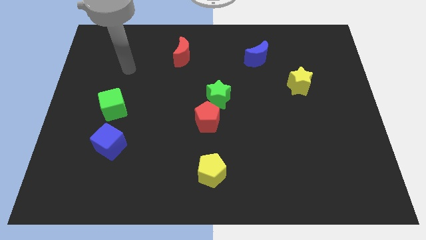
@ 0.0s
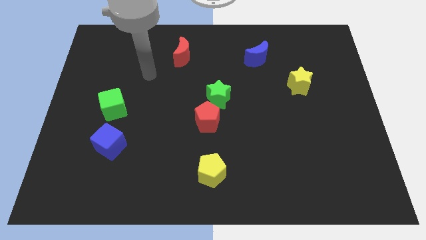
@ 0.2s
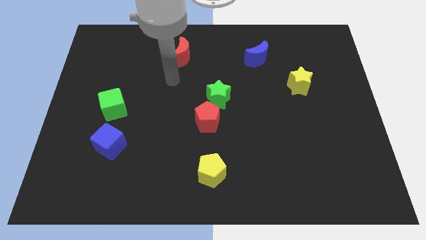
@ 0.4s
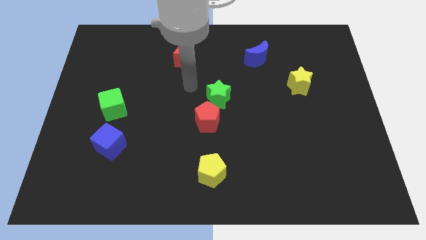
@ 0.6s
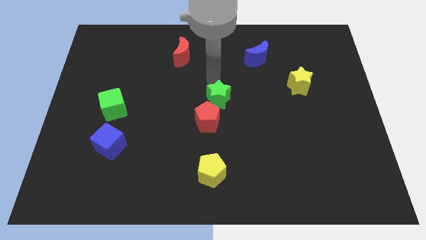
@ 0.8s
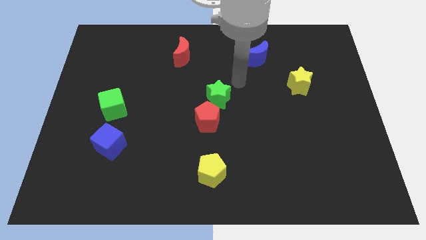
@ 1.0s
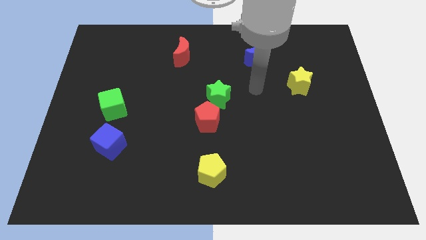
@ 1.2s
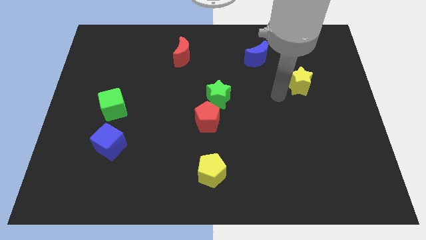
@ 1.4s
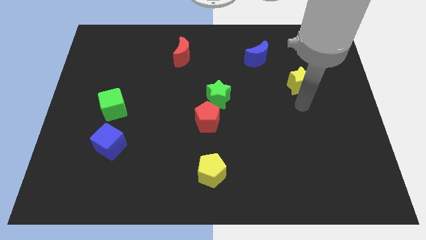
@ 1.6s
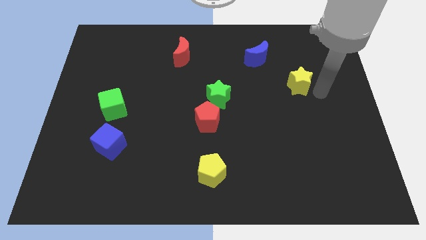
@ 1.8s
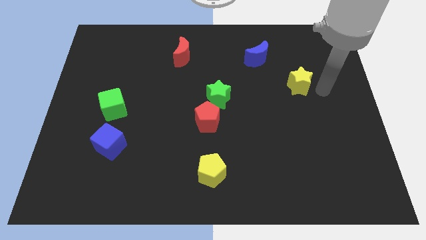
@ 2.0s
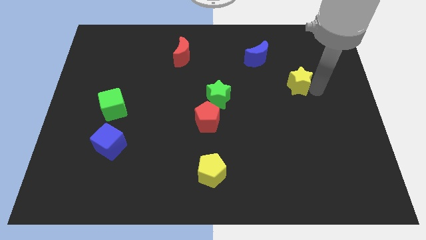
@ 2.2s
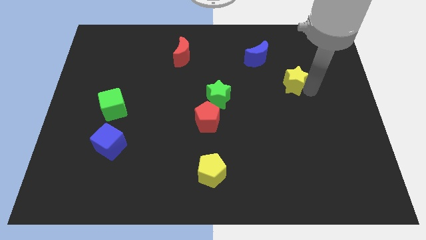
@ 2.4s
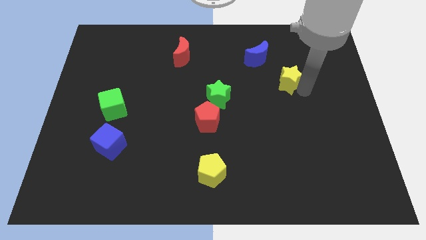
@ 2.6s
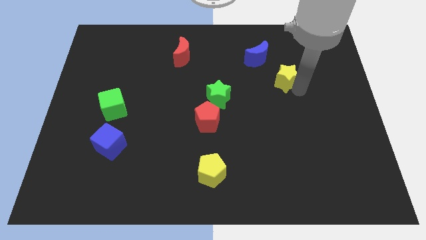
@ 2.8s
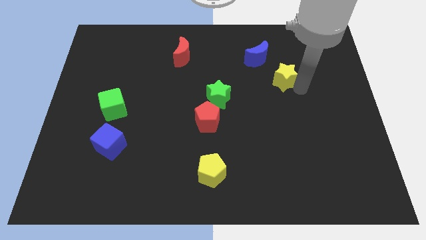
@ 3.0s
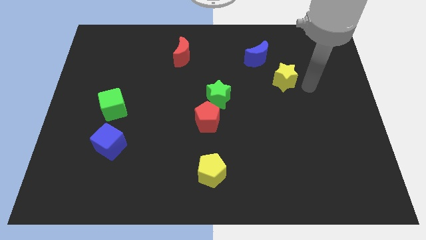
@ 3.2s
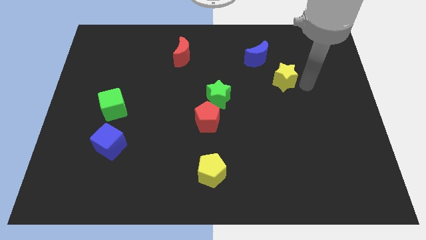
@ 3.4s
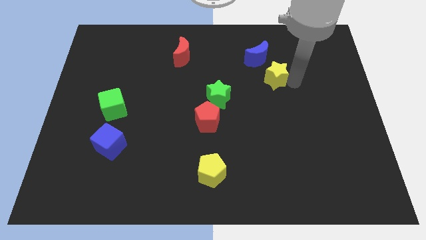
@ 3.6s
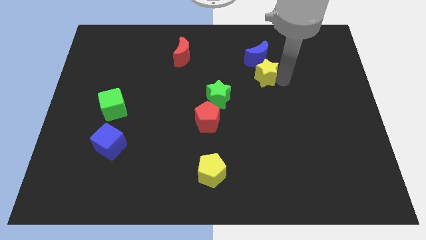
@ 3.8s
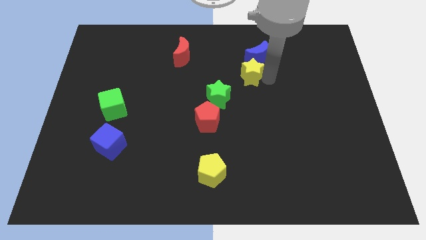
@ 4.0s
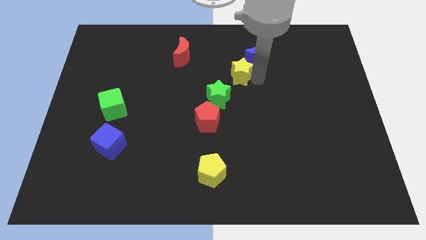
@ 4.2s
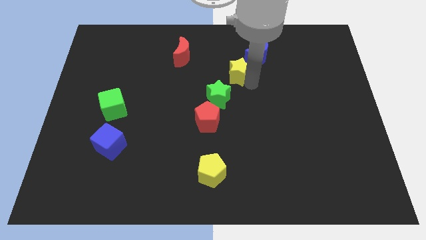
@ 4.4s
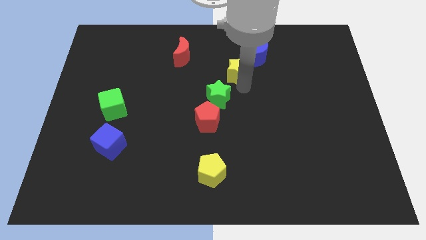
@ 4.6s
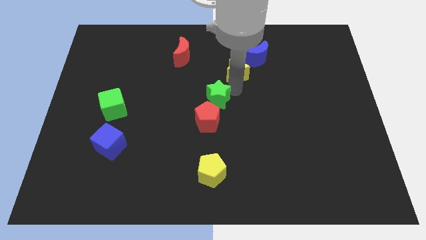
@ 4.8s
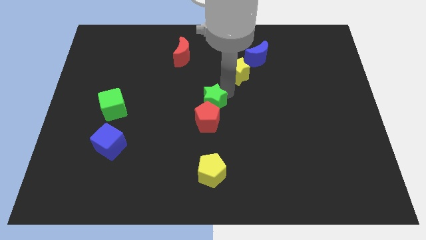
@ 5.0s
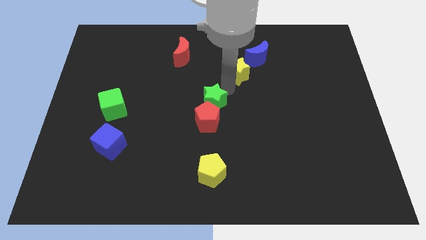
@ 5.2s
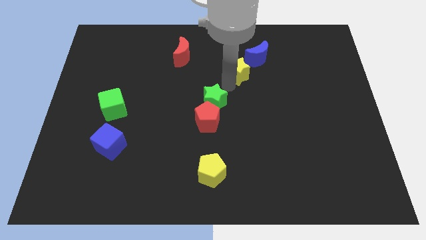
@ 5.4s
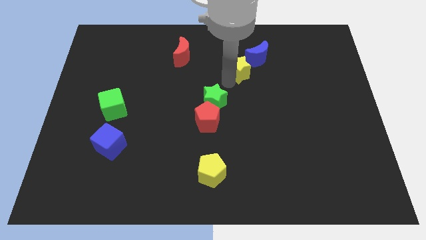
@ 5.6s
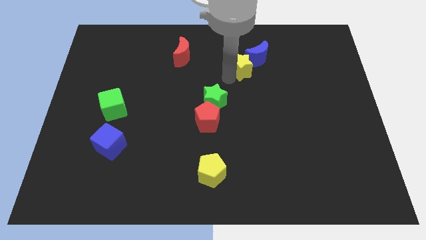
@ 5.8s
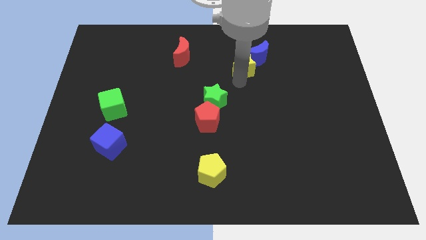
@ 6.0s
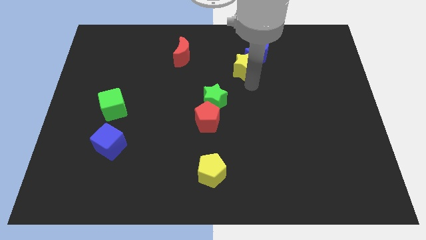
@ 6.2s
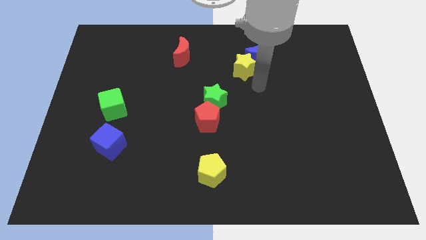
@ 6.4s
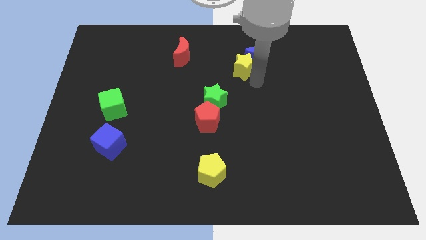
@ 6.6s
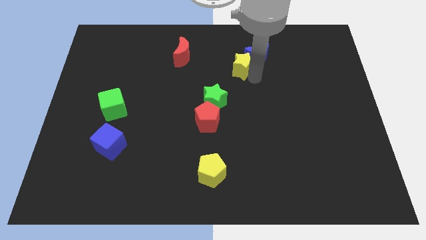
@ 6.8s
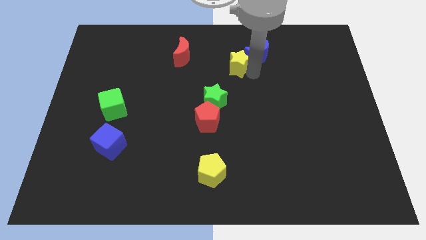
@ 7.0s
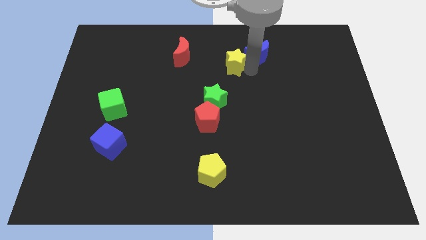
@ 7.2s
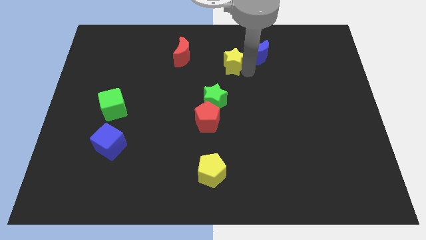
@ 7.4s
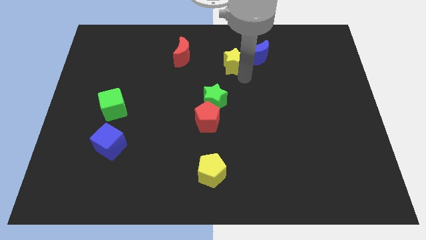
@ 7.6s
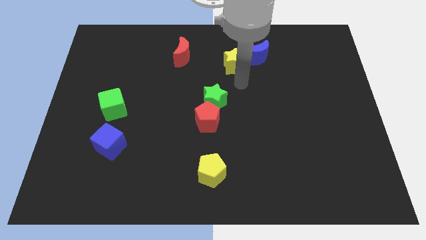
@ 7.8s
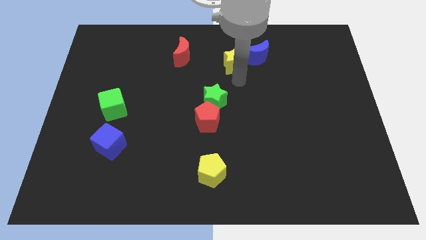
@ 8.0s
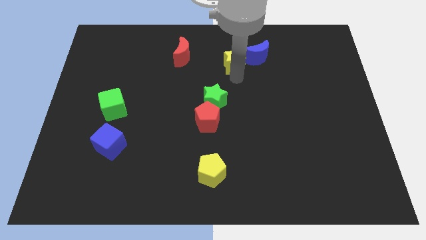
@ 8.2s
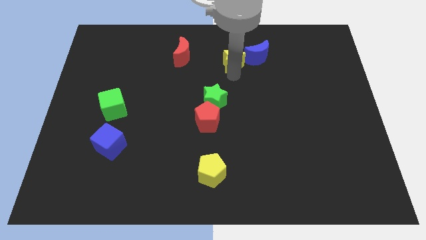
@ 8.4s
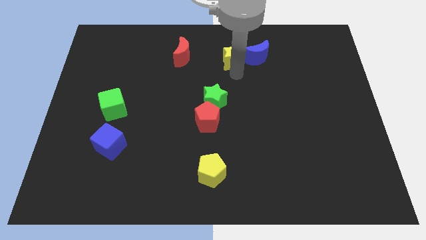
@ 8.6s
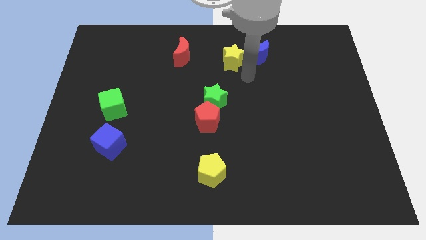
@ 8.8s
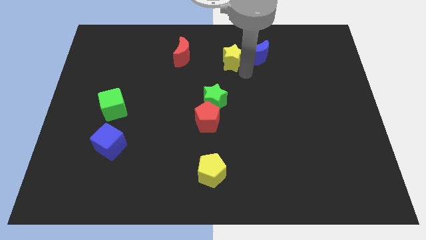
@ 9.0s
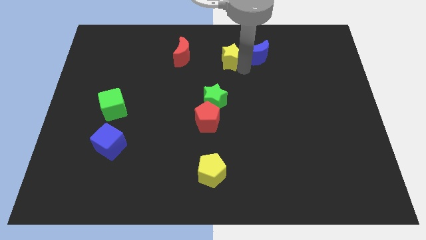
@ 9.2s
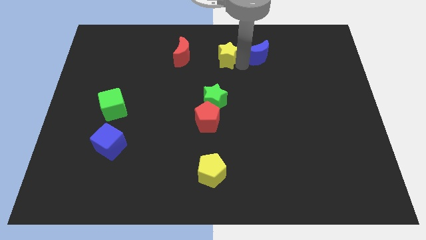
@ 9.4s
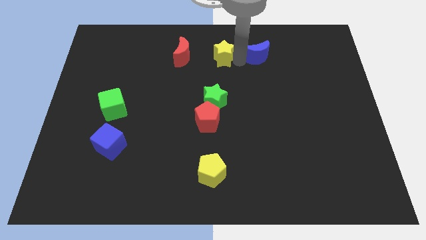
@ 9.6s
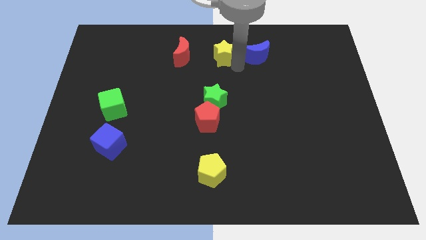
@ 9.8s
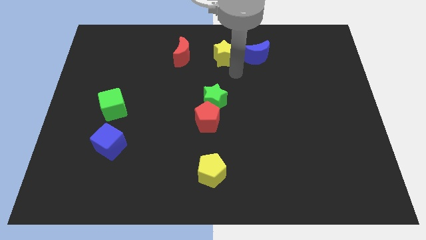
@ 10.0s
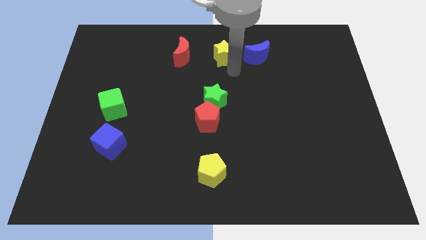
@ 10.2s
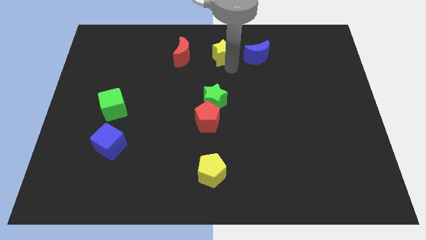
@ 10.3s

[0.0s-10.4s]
slide the yellow star to the towards your base

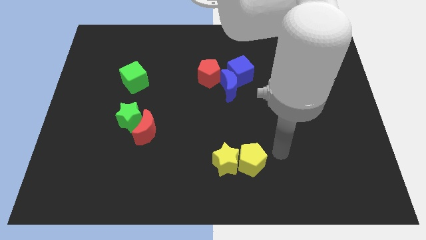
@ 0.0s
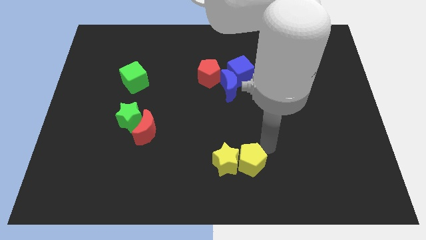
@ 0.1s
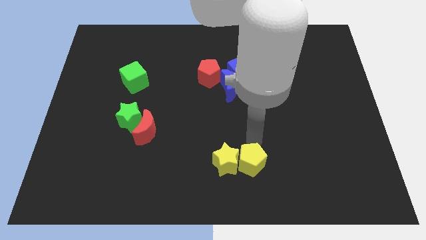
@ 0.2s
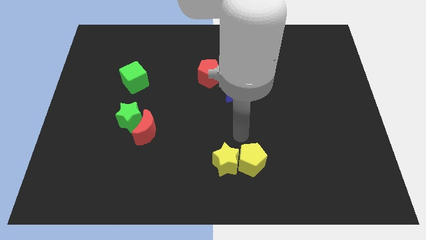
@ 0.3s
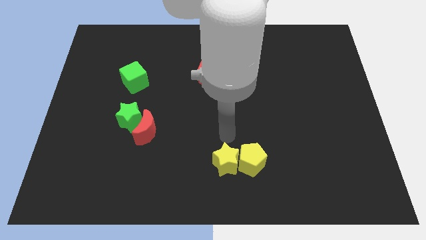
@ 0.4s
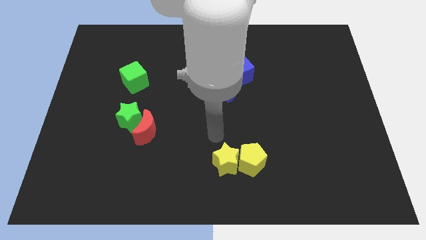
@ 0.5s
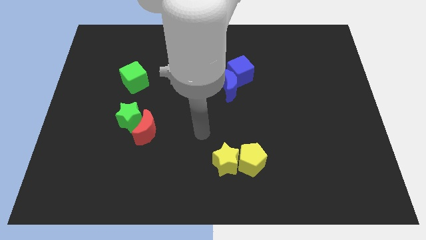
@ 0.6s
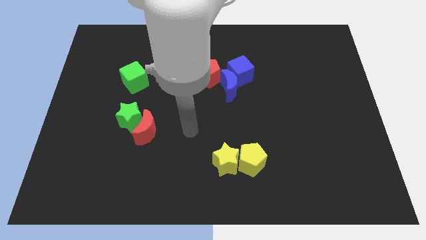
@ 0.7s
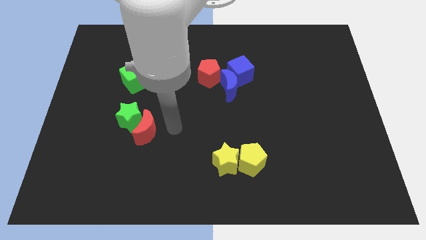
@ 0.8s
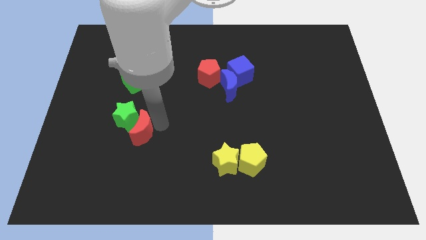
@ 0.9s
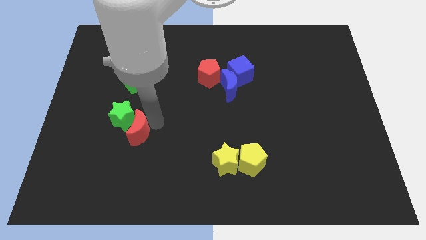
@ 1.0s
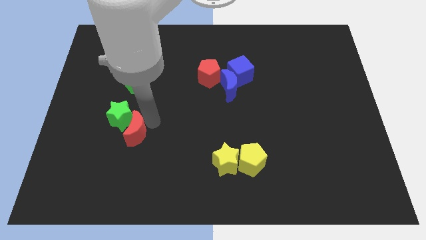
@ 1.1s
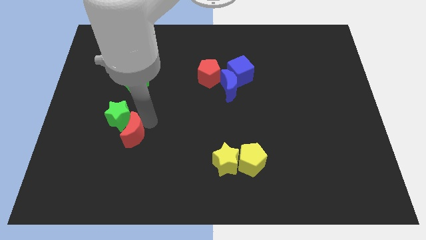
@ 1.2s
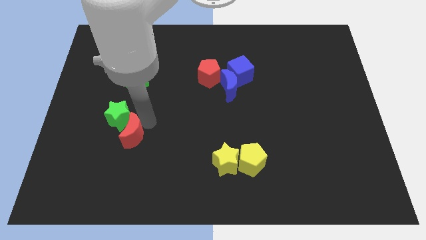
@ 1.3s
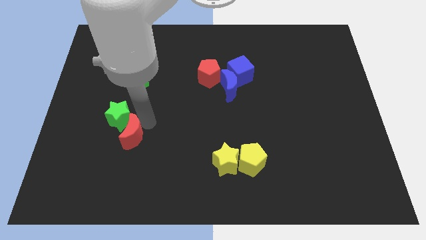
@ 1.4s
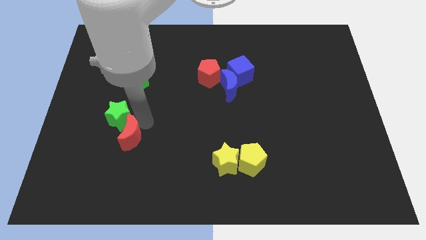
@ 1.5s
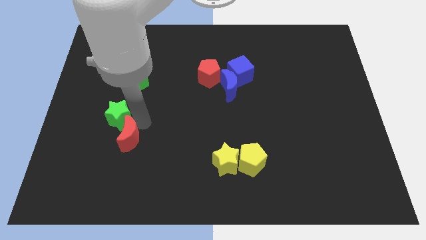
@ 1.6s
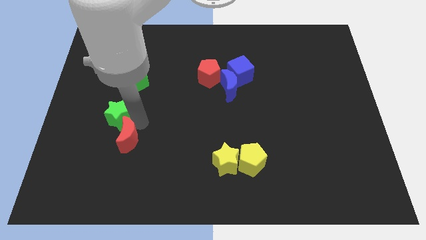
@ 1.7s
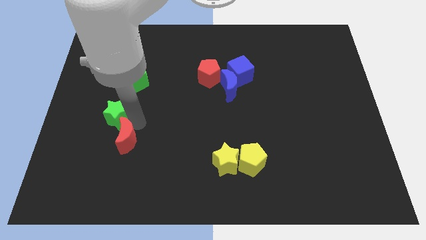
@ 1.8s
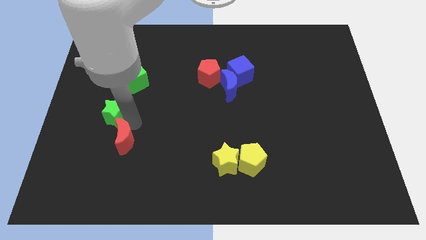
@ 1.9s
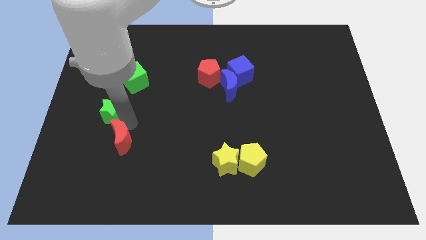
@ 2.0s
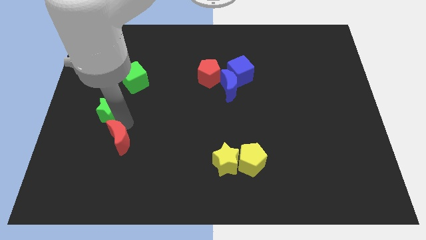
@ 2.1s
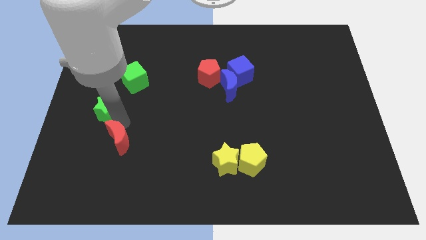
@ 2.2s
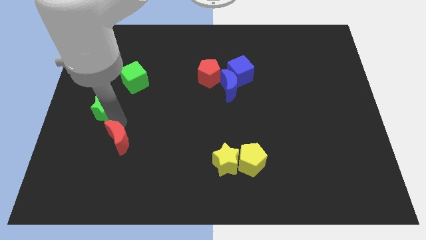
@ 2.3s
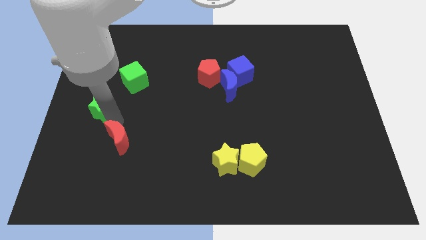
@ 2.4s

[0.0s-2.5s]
slide the green star to the center left
